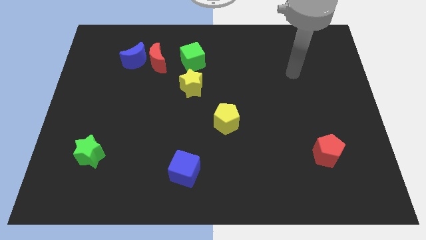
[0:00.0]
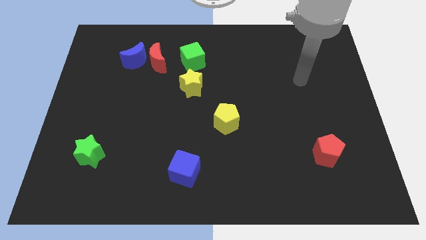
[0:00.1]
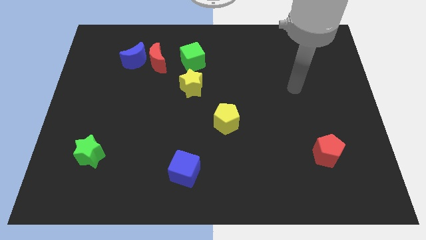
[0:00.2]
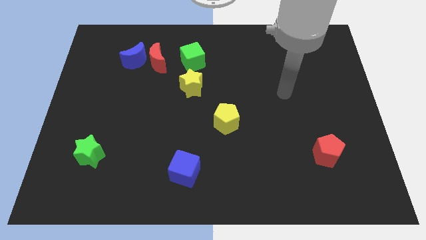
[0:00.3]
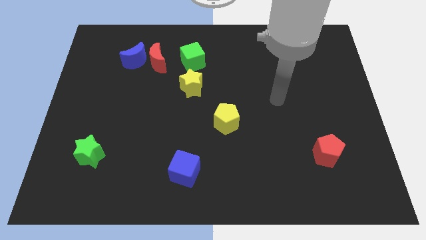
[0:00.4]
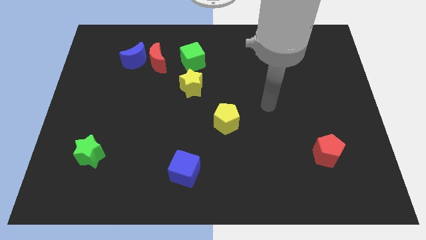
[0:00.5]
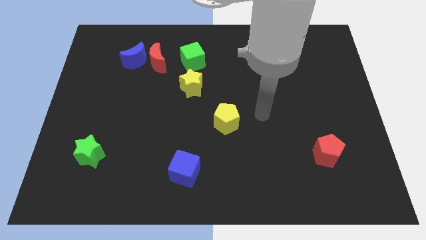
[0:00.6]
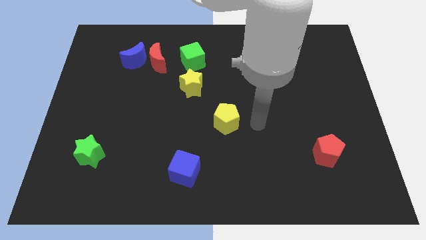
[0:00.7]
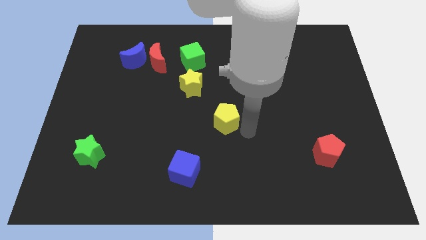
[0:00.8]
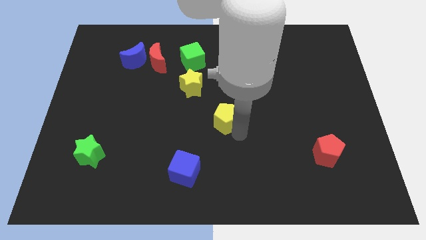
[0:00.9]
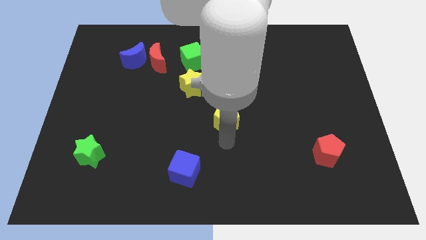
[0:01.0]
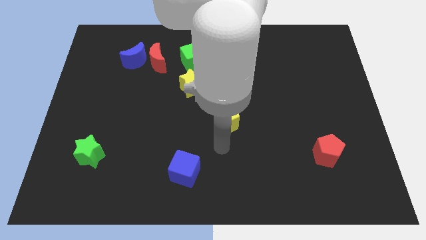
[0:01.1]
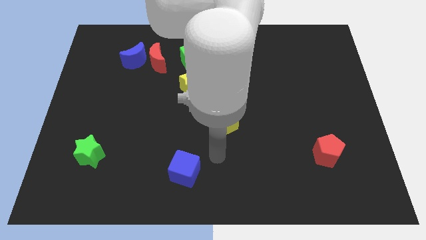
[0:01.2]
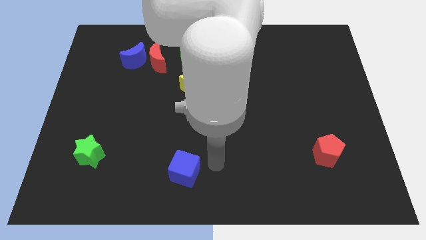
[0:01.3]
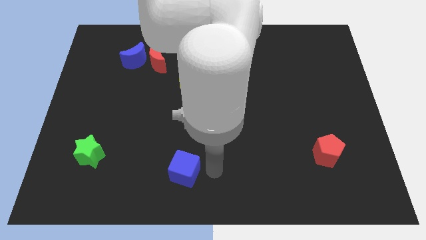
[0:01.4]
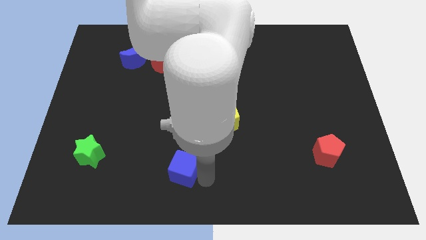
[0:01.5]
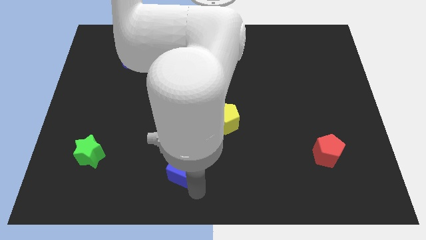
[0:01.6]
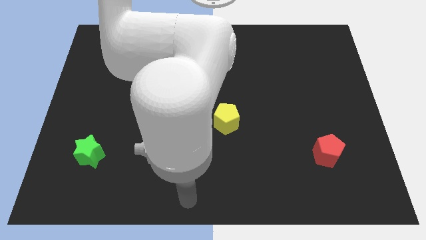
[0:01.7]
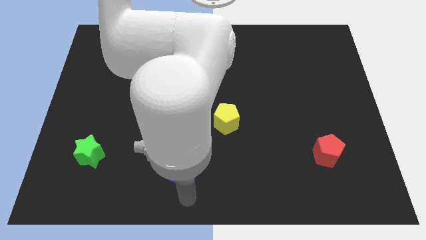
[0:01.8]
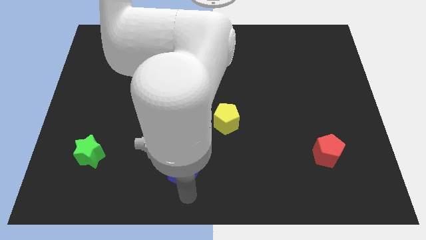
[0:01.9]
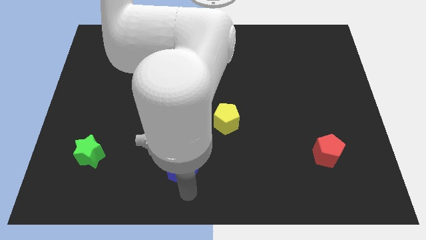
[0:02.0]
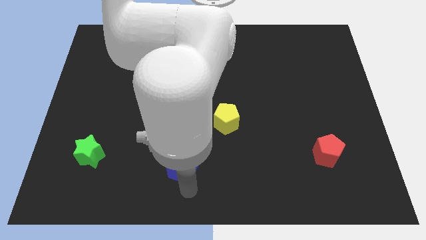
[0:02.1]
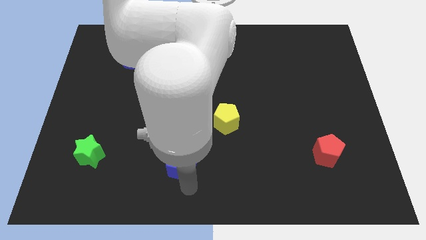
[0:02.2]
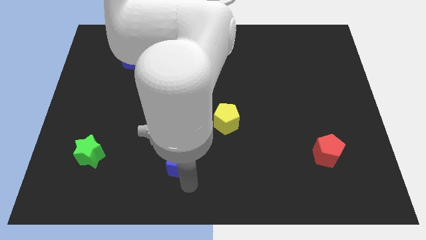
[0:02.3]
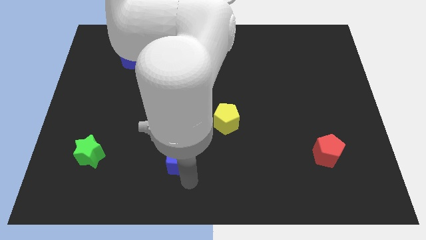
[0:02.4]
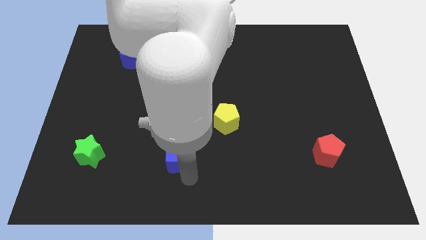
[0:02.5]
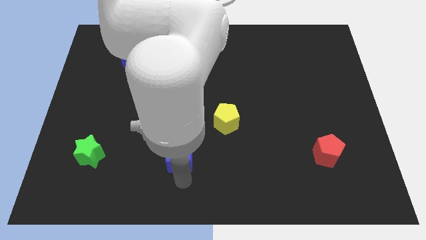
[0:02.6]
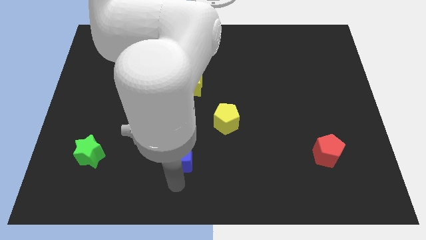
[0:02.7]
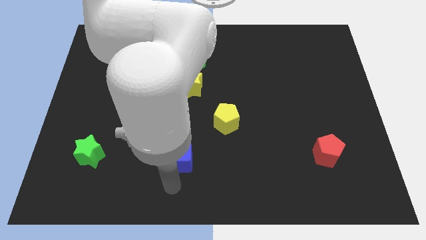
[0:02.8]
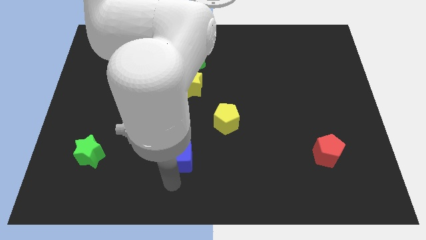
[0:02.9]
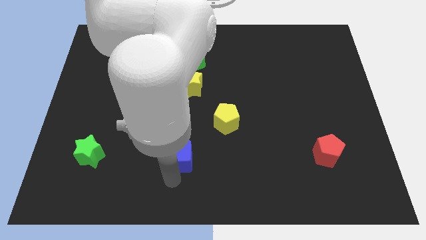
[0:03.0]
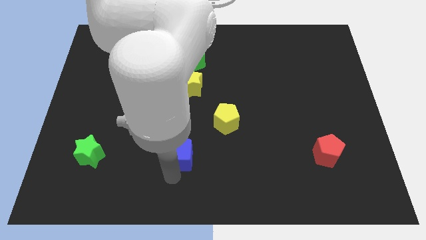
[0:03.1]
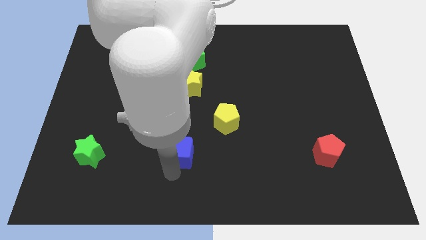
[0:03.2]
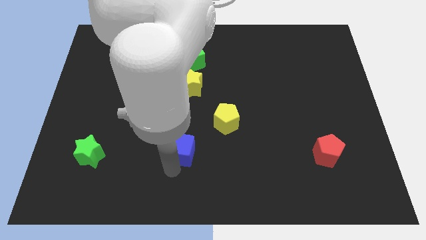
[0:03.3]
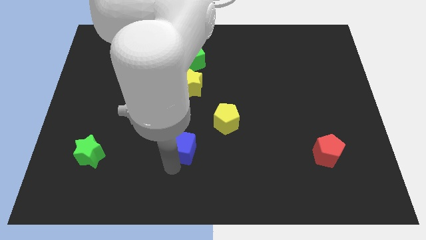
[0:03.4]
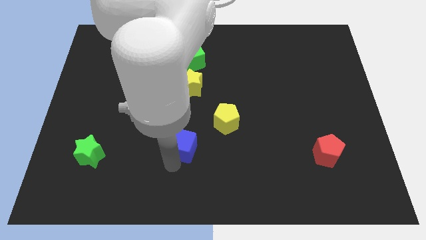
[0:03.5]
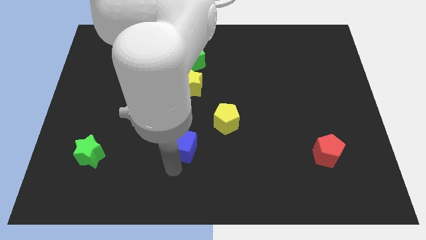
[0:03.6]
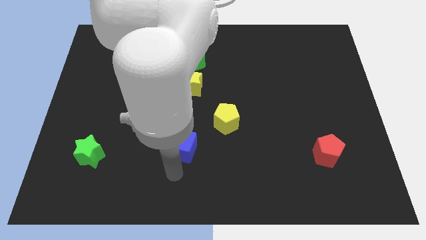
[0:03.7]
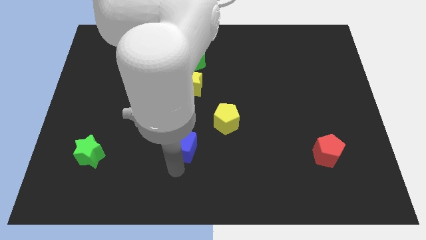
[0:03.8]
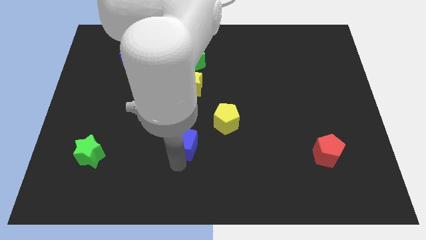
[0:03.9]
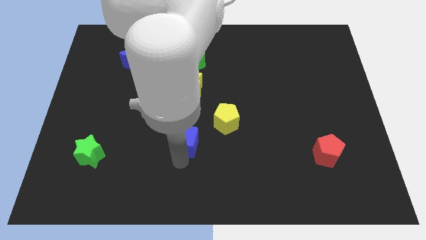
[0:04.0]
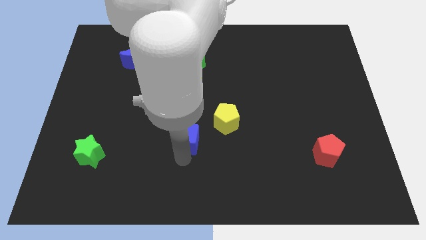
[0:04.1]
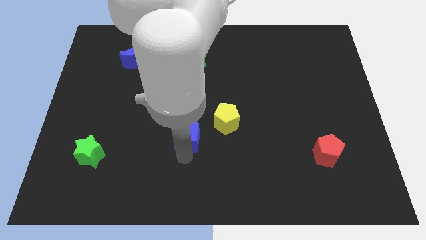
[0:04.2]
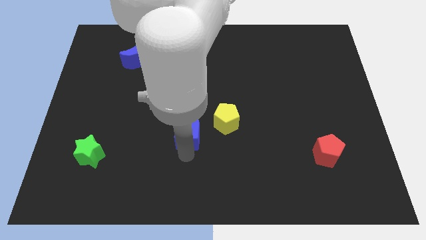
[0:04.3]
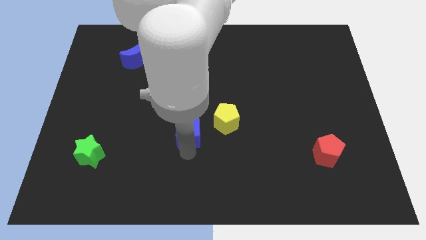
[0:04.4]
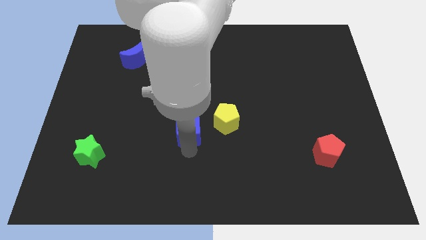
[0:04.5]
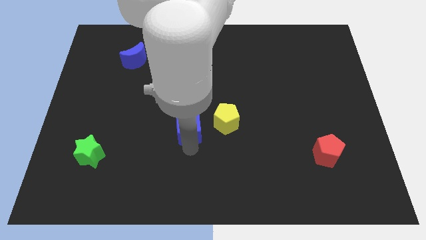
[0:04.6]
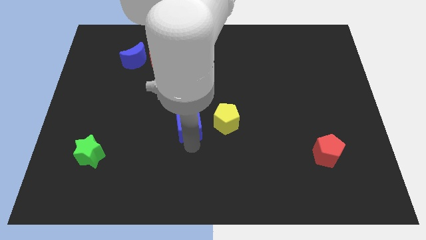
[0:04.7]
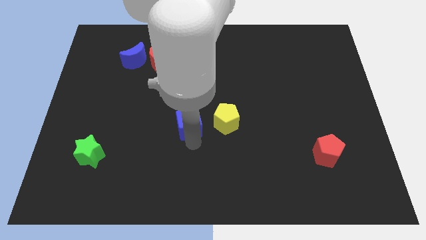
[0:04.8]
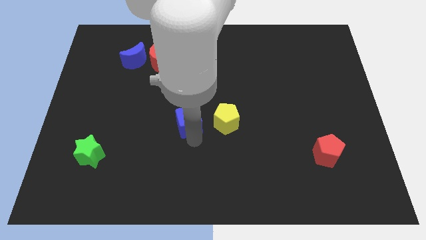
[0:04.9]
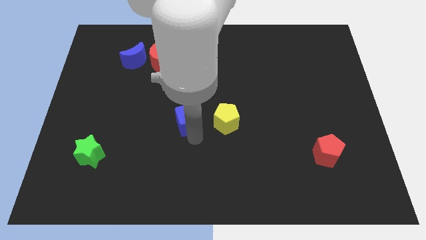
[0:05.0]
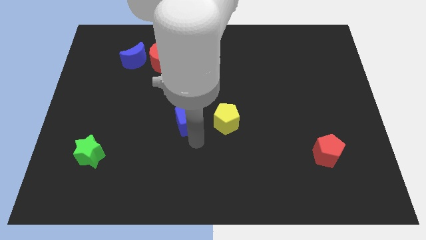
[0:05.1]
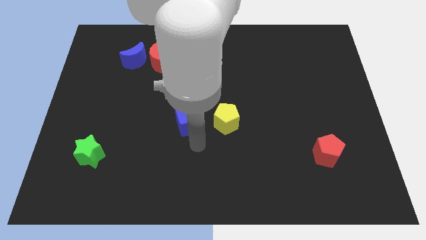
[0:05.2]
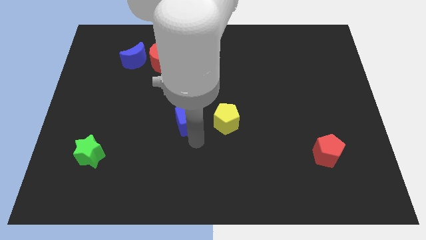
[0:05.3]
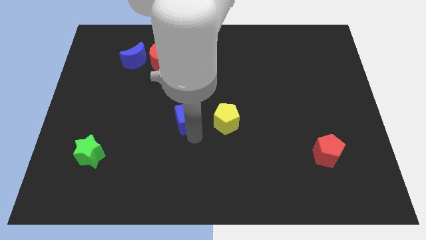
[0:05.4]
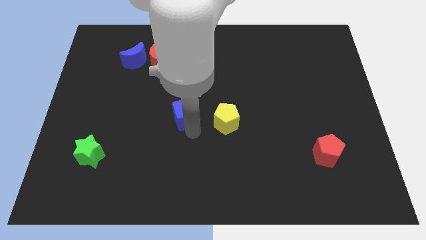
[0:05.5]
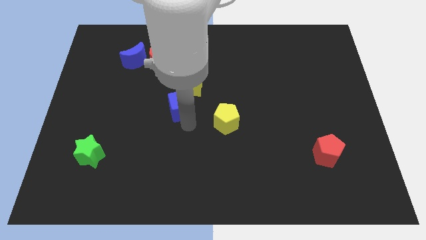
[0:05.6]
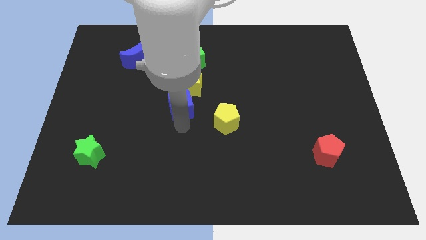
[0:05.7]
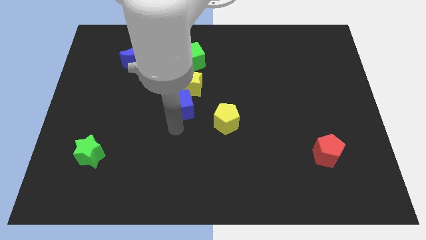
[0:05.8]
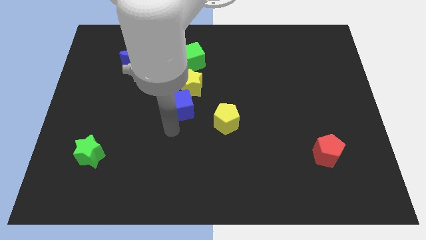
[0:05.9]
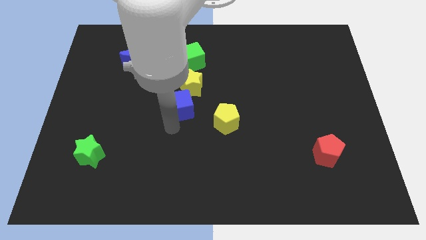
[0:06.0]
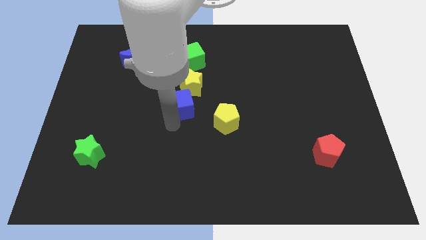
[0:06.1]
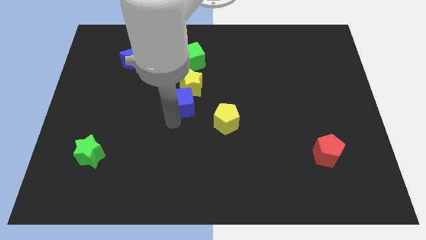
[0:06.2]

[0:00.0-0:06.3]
slide the blue cube close to the yellow star

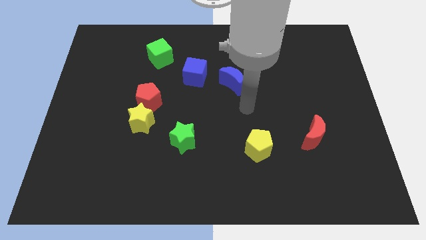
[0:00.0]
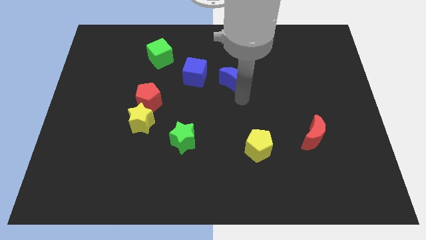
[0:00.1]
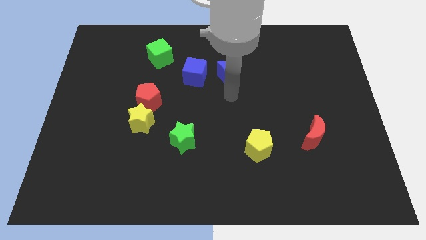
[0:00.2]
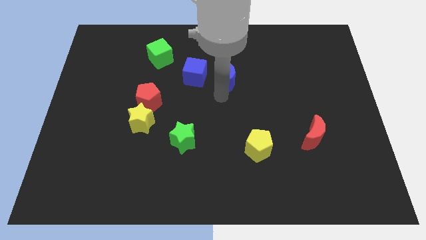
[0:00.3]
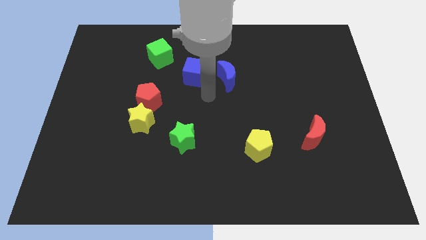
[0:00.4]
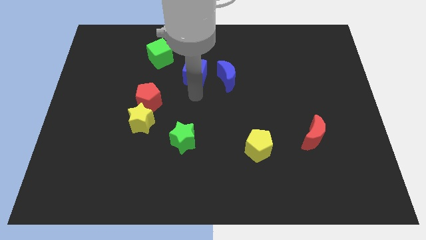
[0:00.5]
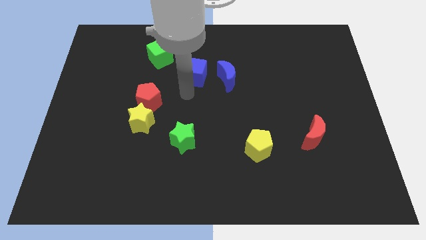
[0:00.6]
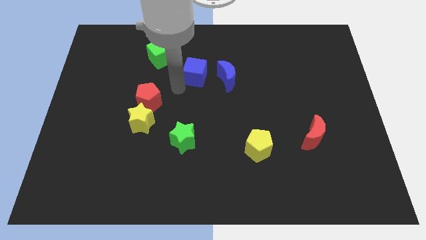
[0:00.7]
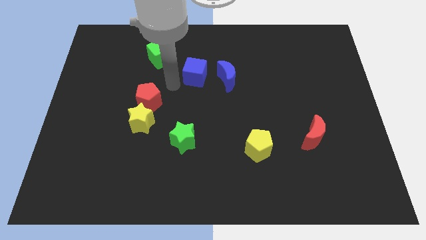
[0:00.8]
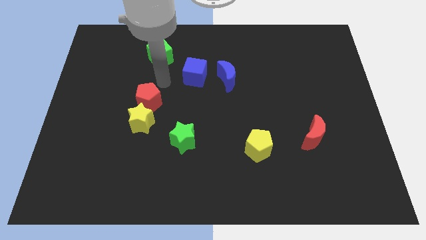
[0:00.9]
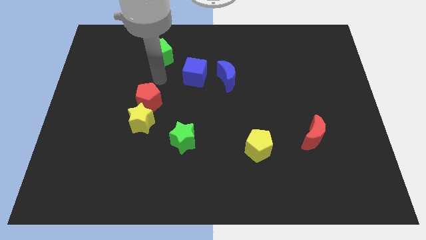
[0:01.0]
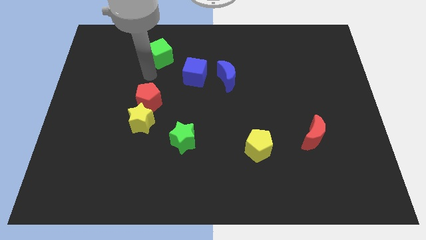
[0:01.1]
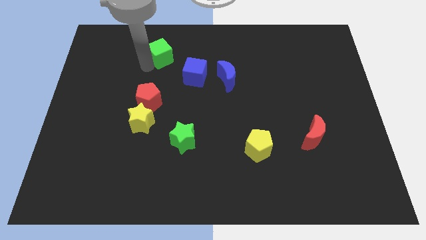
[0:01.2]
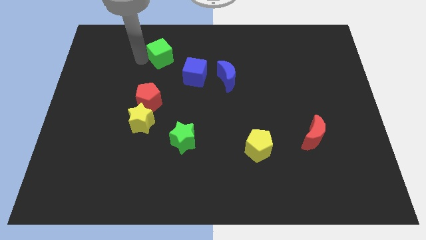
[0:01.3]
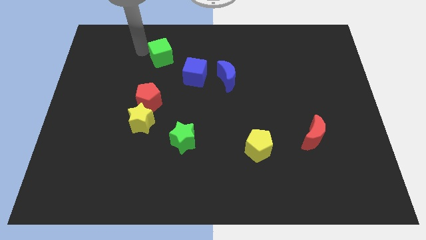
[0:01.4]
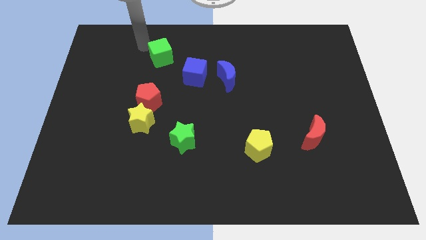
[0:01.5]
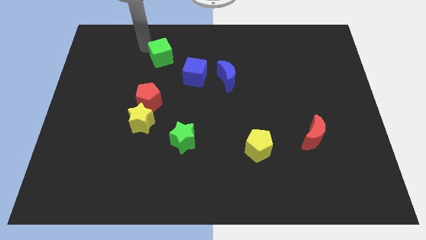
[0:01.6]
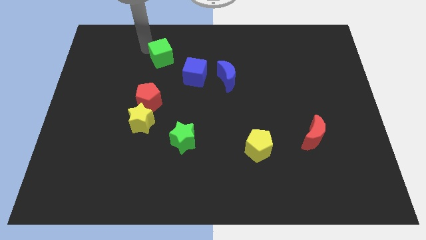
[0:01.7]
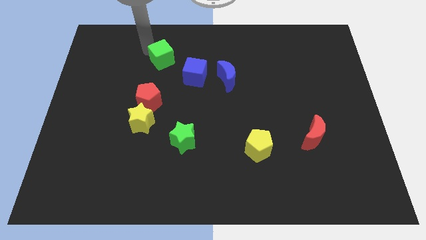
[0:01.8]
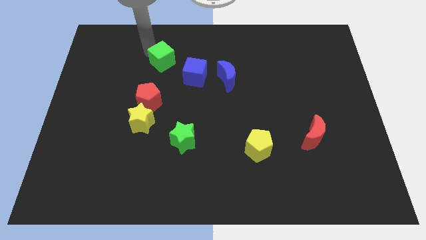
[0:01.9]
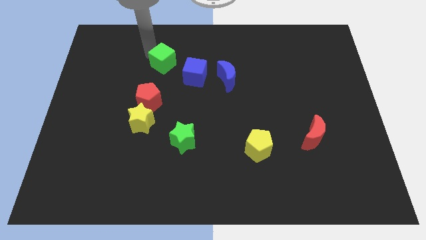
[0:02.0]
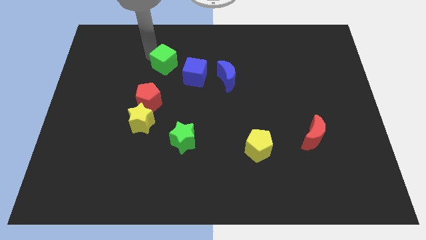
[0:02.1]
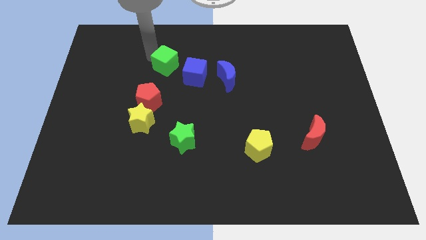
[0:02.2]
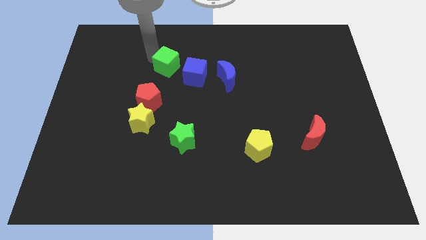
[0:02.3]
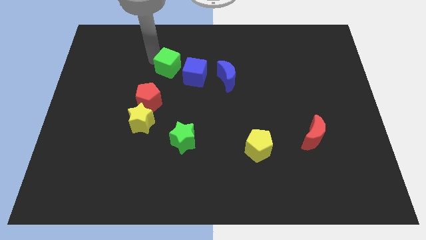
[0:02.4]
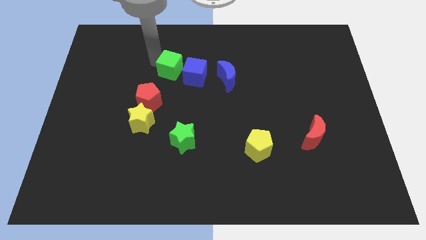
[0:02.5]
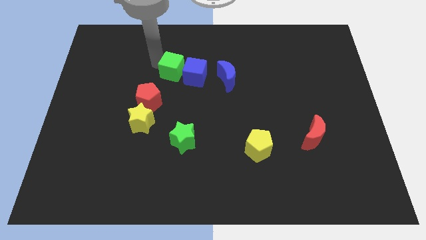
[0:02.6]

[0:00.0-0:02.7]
slide the green cube to the blue cube
